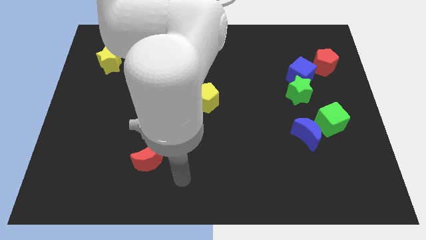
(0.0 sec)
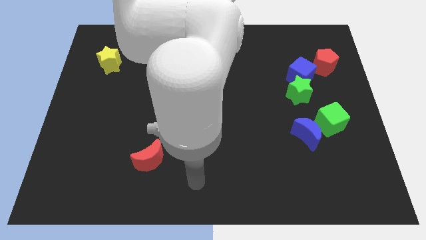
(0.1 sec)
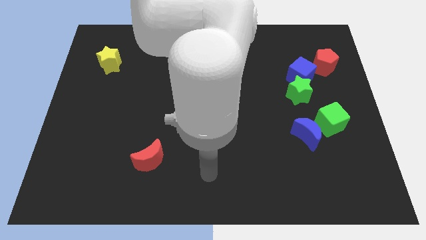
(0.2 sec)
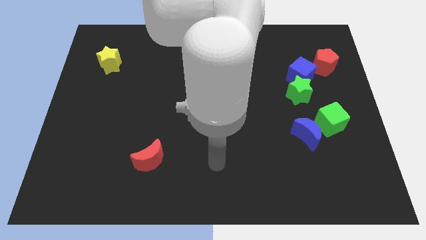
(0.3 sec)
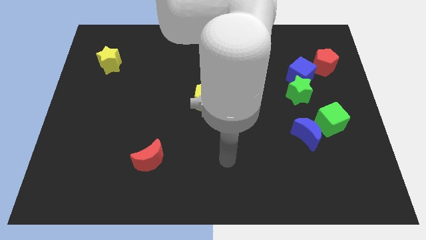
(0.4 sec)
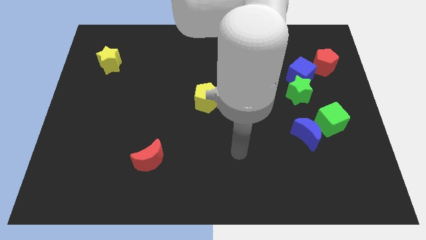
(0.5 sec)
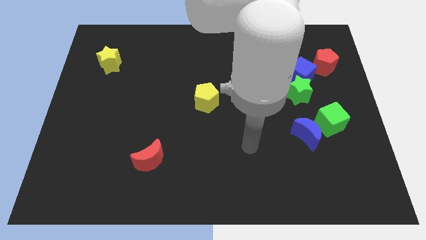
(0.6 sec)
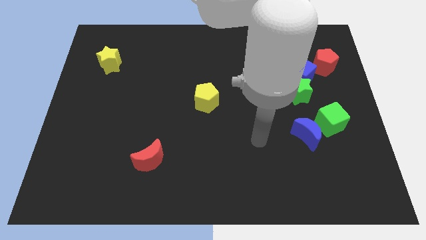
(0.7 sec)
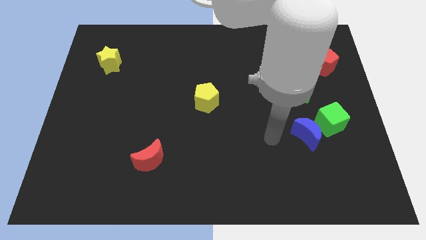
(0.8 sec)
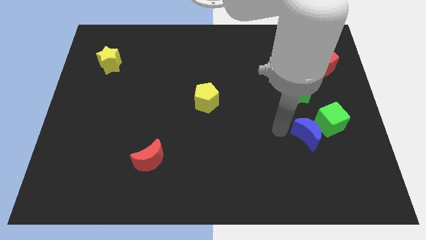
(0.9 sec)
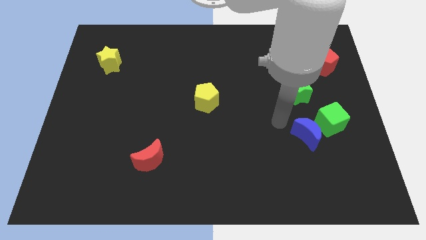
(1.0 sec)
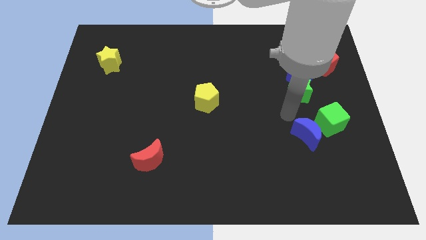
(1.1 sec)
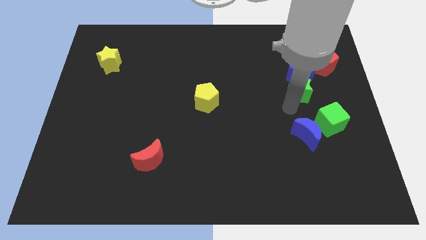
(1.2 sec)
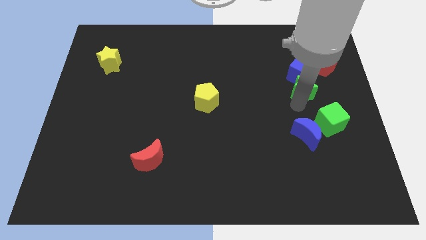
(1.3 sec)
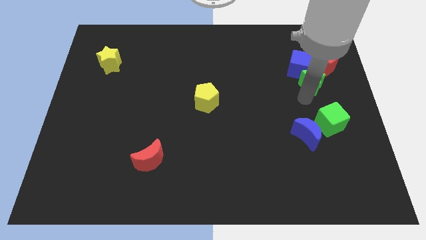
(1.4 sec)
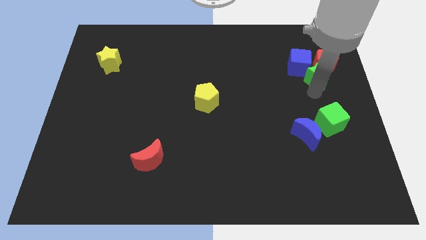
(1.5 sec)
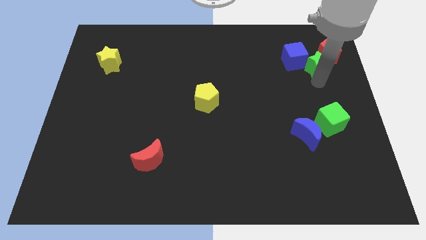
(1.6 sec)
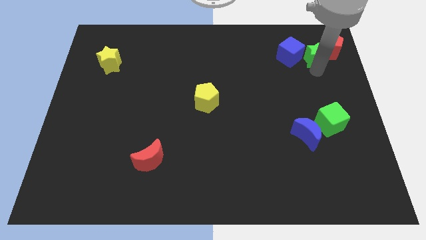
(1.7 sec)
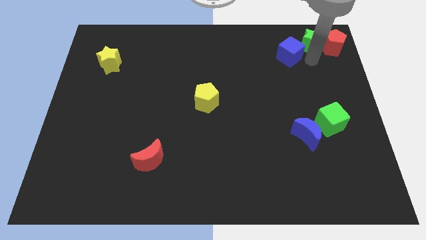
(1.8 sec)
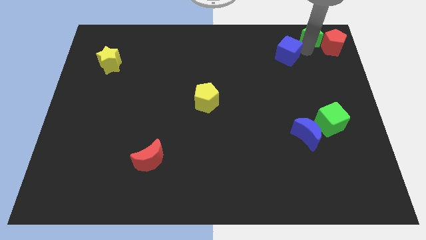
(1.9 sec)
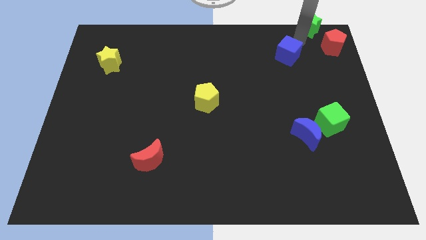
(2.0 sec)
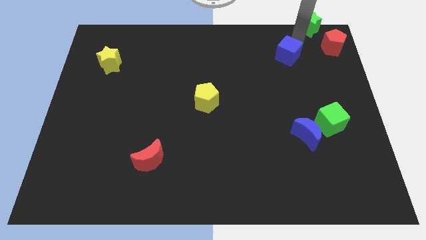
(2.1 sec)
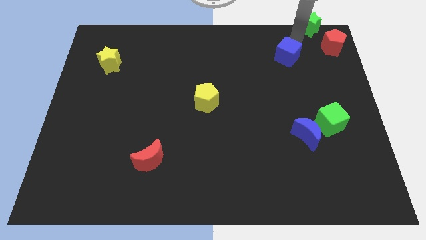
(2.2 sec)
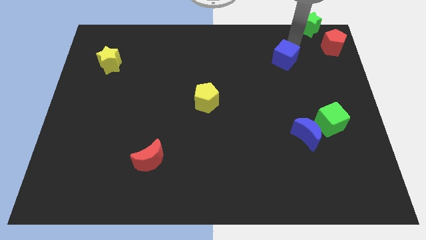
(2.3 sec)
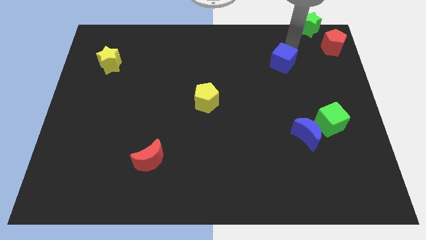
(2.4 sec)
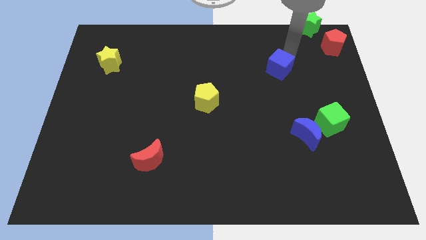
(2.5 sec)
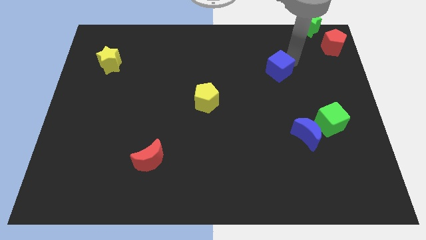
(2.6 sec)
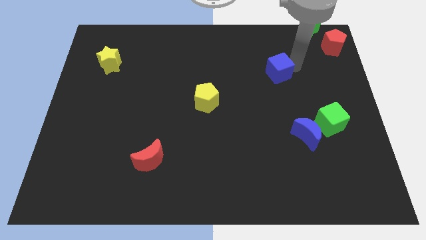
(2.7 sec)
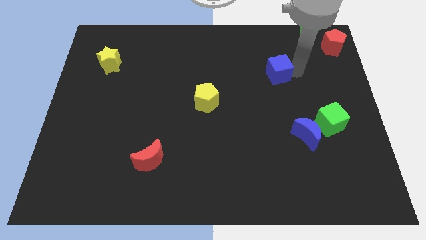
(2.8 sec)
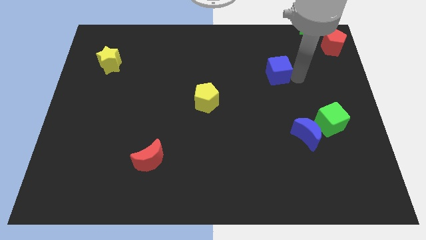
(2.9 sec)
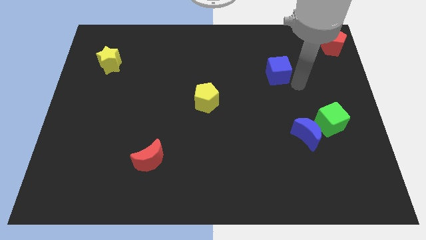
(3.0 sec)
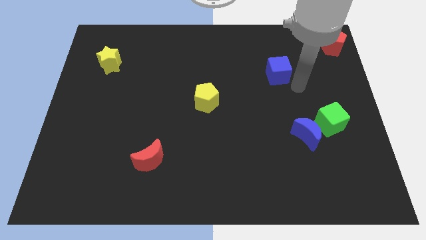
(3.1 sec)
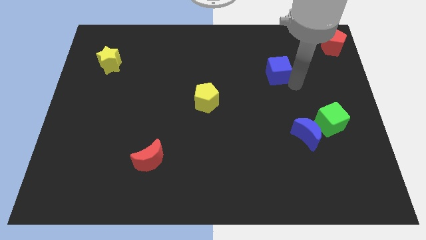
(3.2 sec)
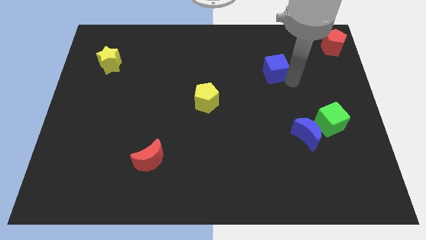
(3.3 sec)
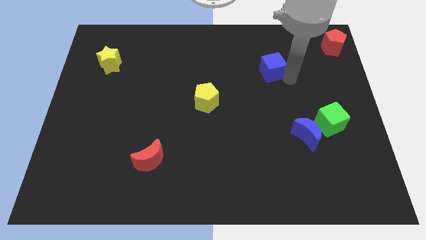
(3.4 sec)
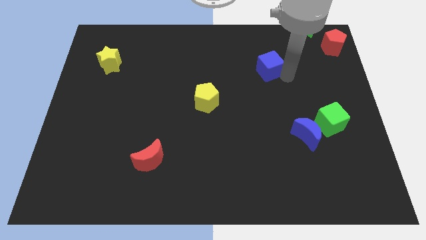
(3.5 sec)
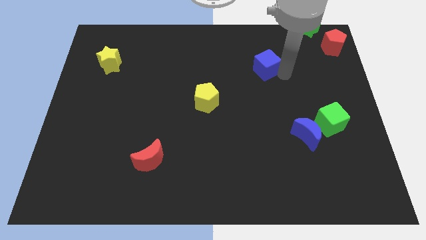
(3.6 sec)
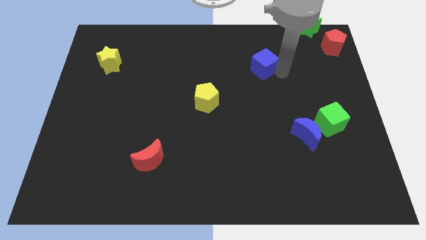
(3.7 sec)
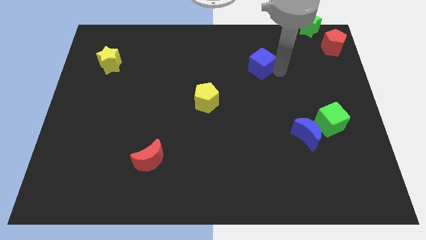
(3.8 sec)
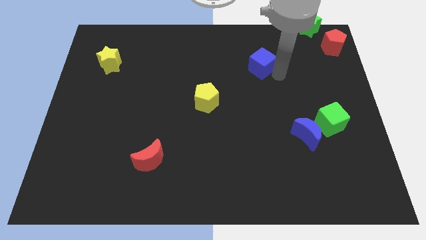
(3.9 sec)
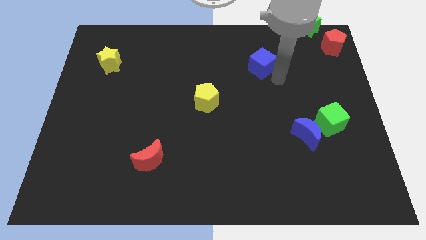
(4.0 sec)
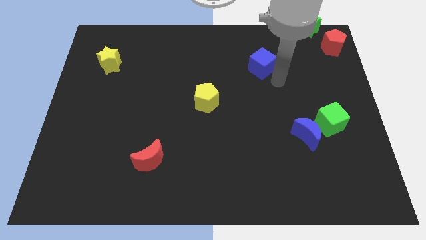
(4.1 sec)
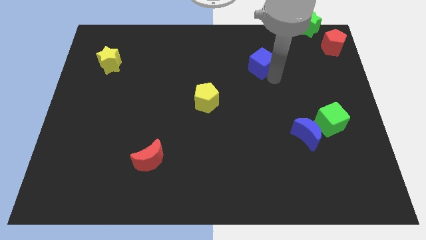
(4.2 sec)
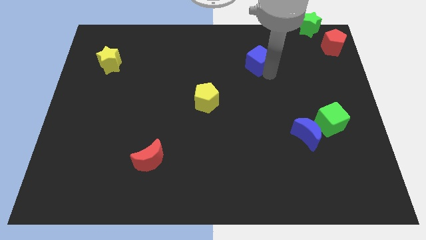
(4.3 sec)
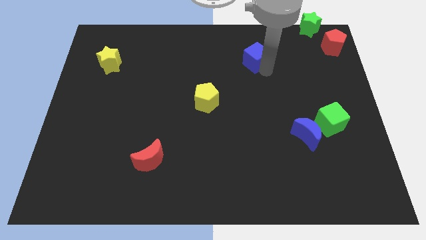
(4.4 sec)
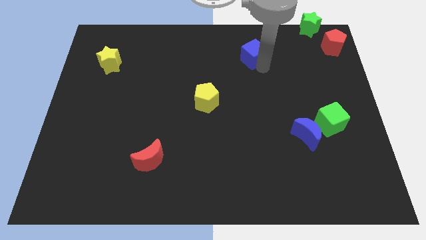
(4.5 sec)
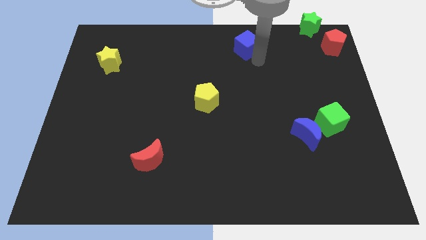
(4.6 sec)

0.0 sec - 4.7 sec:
move the blue cube to the towards your base

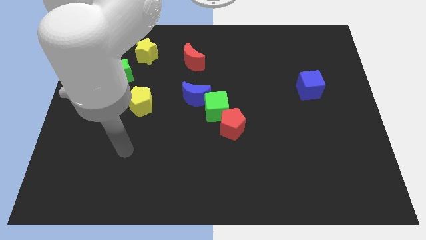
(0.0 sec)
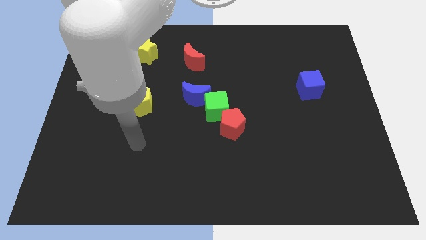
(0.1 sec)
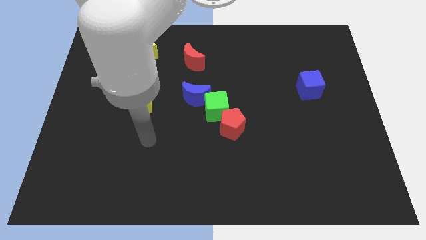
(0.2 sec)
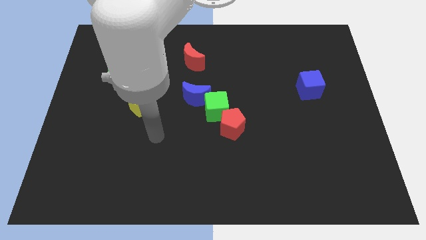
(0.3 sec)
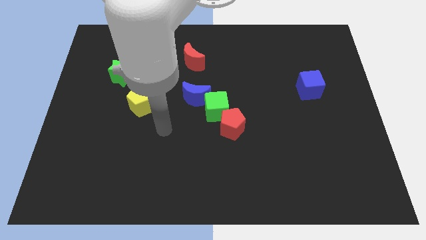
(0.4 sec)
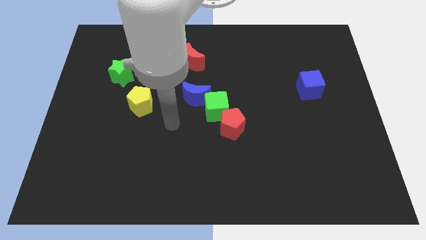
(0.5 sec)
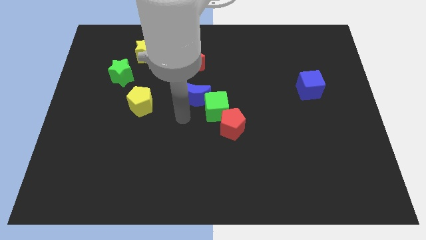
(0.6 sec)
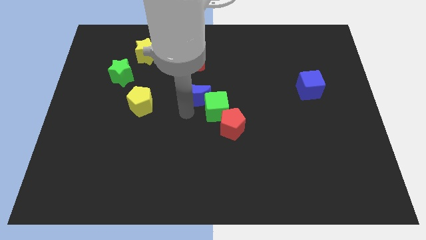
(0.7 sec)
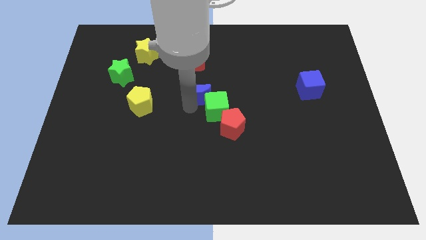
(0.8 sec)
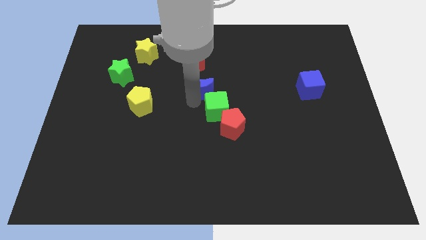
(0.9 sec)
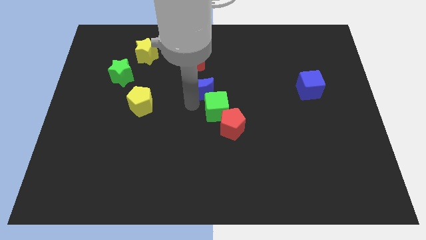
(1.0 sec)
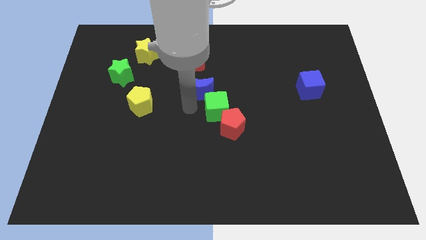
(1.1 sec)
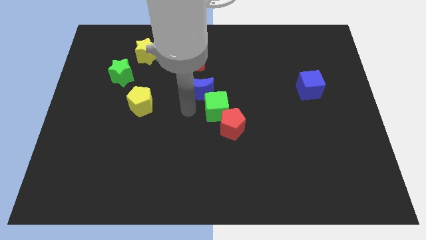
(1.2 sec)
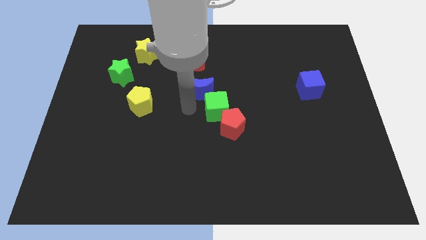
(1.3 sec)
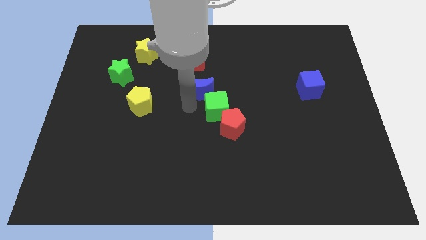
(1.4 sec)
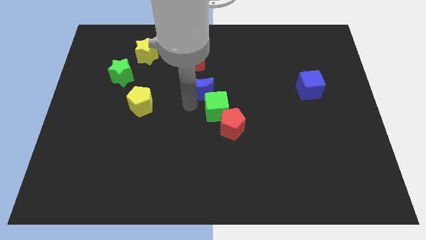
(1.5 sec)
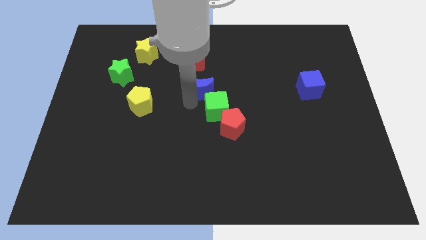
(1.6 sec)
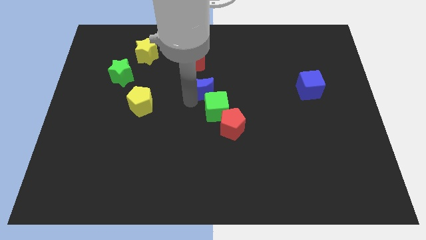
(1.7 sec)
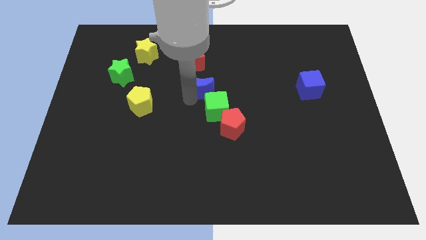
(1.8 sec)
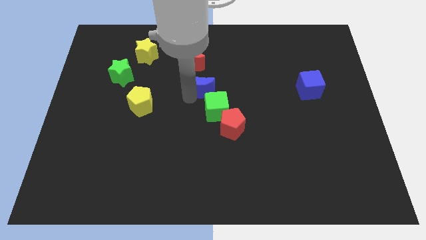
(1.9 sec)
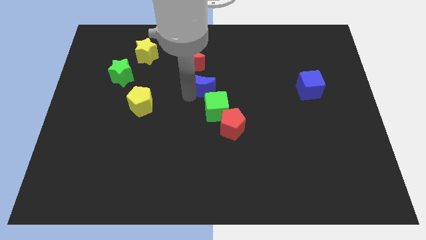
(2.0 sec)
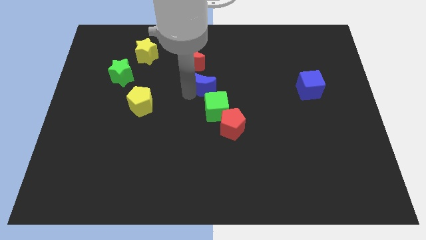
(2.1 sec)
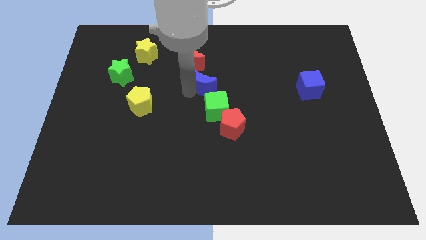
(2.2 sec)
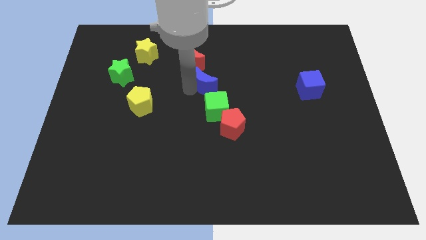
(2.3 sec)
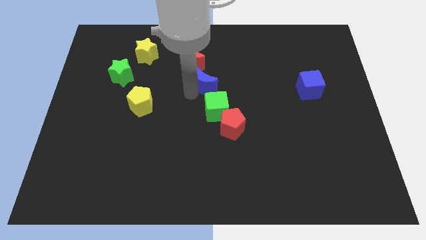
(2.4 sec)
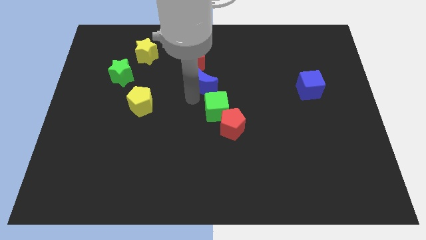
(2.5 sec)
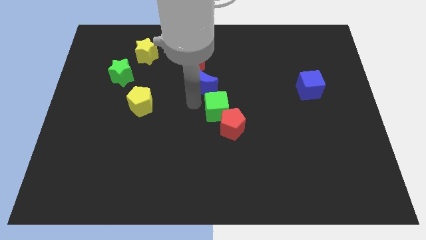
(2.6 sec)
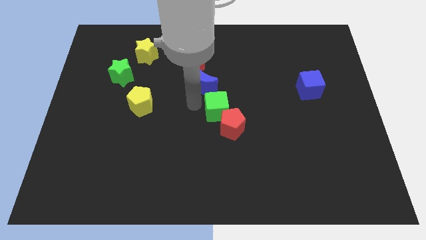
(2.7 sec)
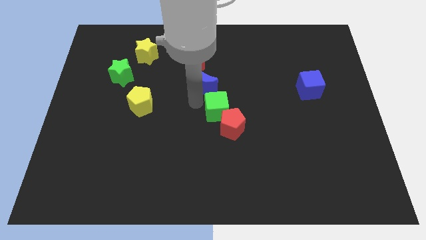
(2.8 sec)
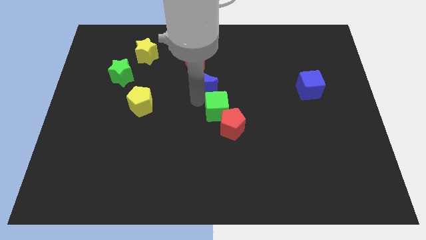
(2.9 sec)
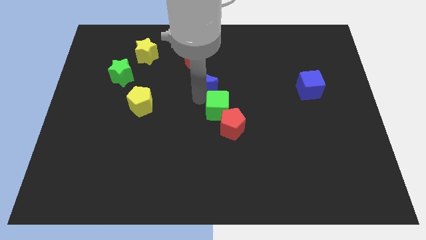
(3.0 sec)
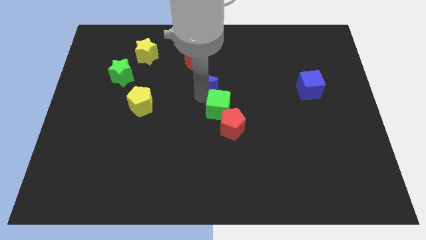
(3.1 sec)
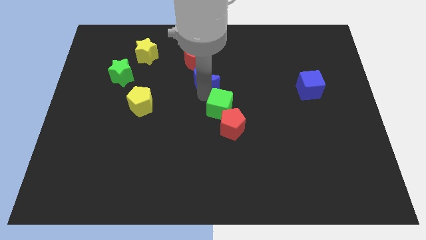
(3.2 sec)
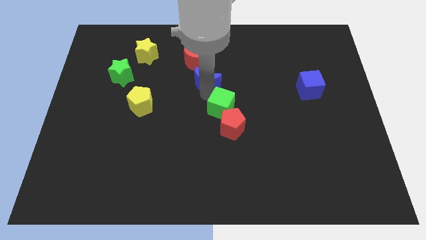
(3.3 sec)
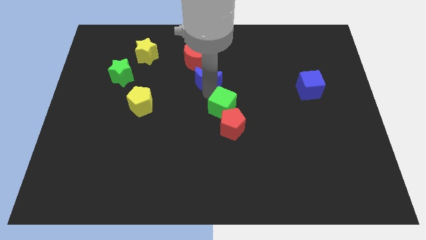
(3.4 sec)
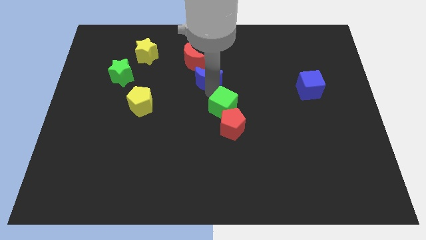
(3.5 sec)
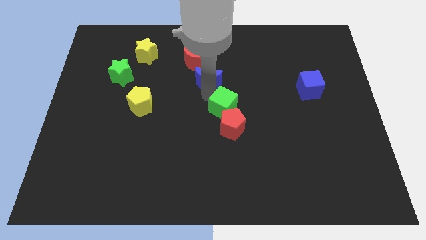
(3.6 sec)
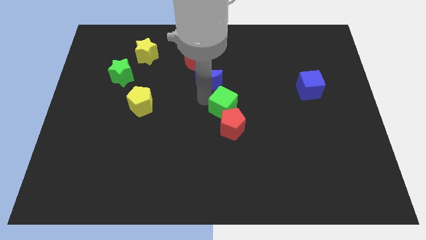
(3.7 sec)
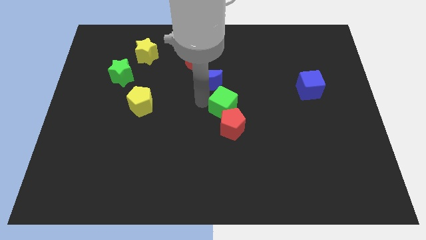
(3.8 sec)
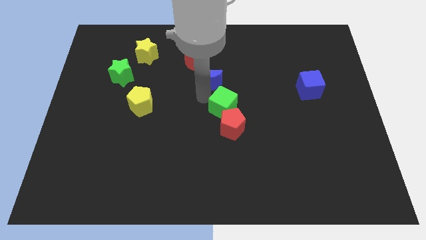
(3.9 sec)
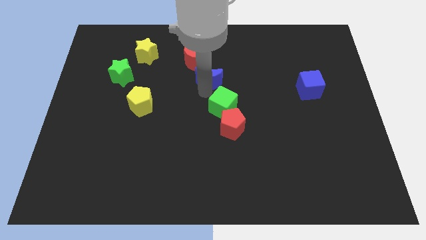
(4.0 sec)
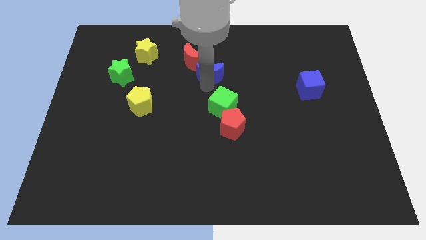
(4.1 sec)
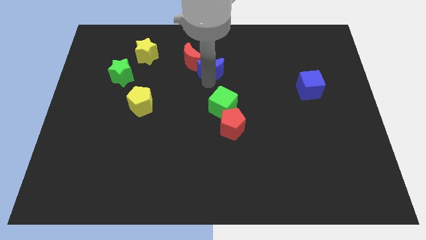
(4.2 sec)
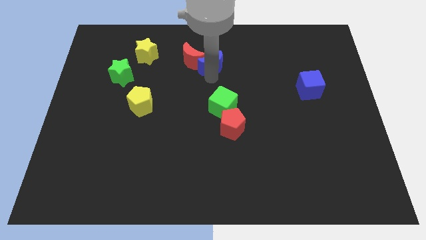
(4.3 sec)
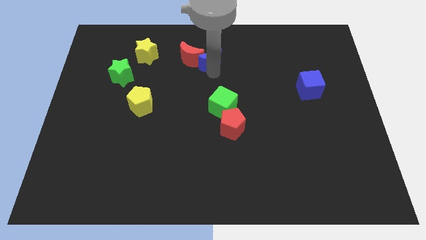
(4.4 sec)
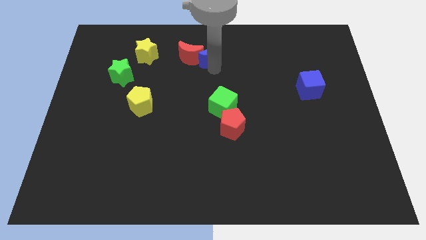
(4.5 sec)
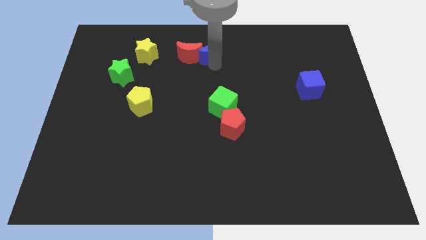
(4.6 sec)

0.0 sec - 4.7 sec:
move the blue moon to the top
